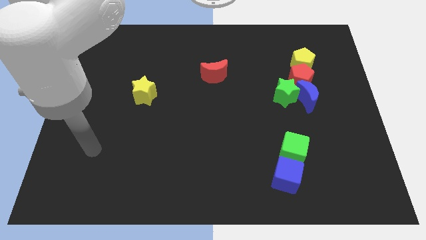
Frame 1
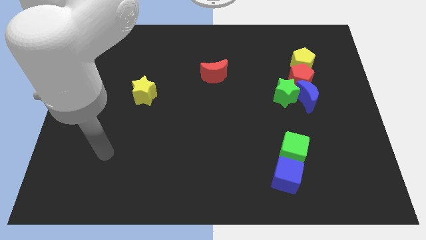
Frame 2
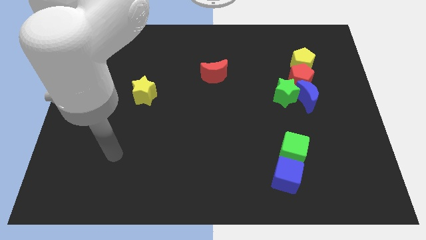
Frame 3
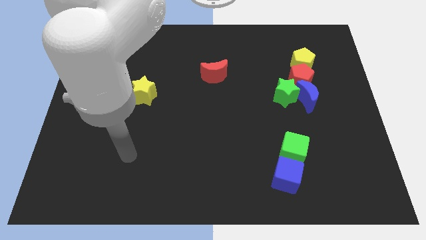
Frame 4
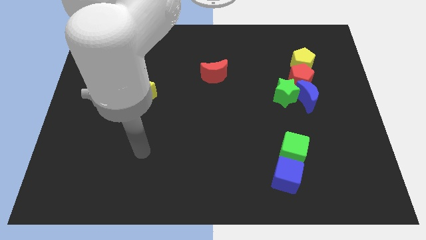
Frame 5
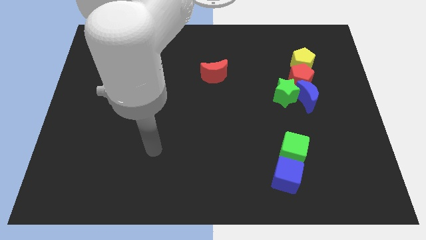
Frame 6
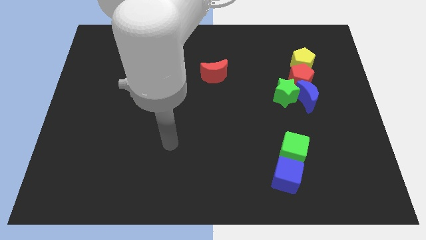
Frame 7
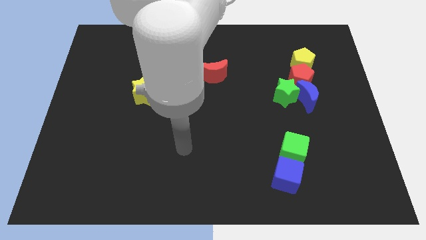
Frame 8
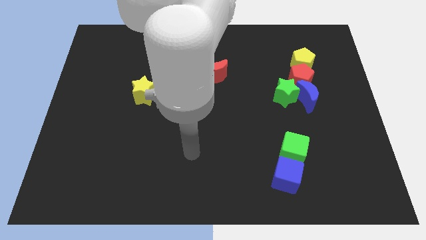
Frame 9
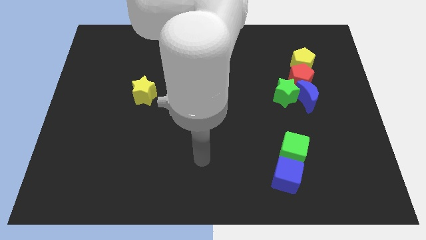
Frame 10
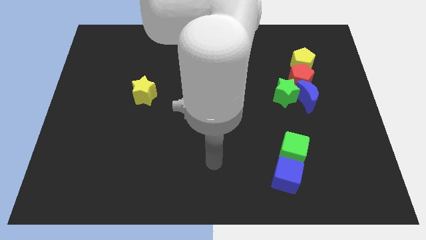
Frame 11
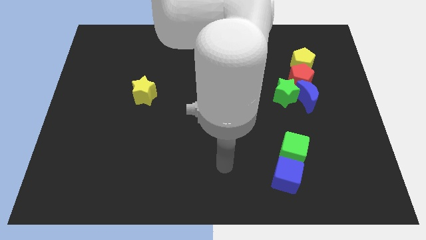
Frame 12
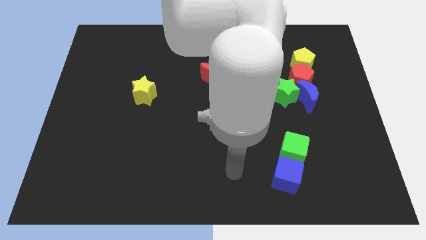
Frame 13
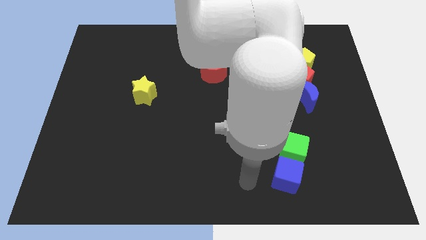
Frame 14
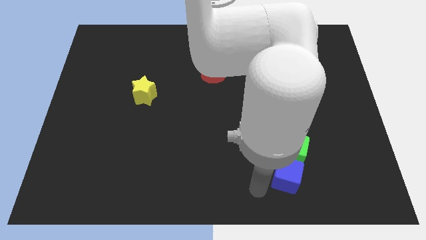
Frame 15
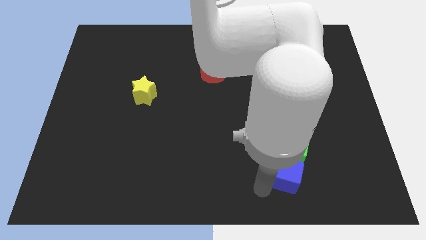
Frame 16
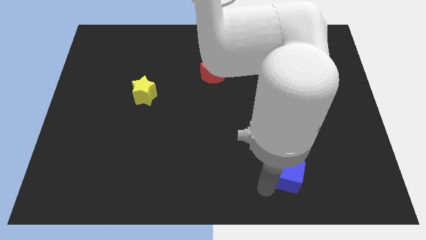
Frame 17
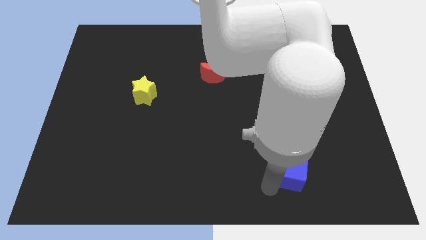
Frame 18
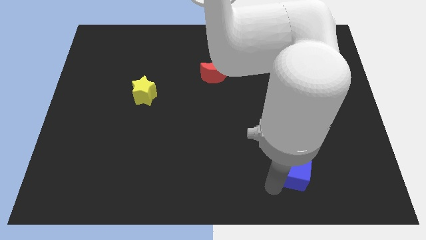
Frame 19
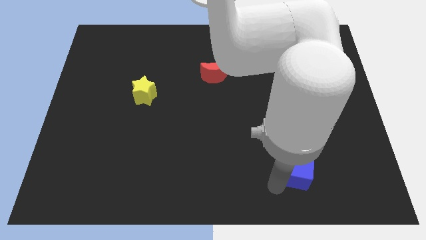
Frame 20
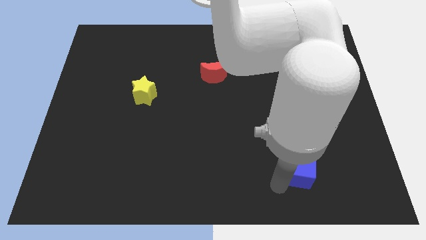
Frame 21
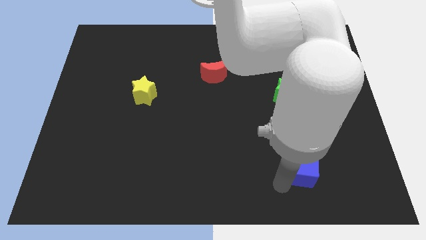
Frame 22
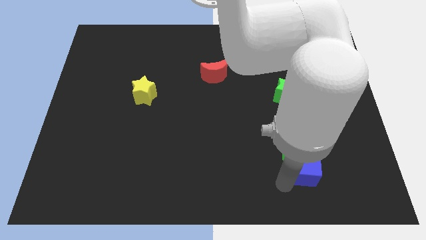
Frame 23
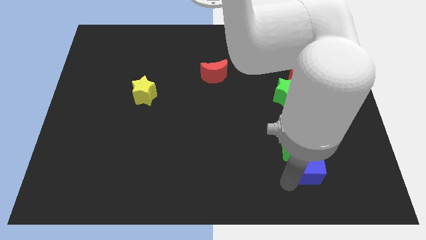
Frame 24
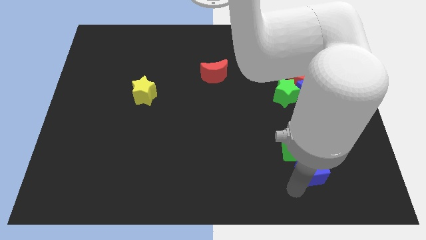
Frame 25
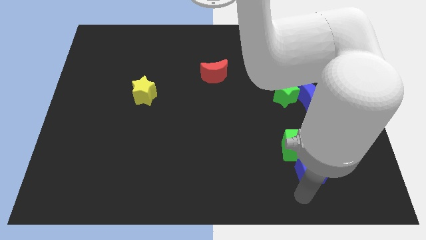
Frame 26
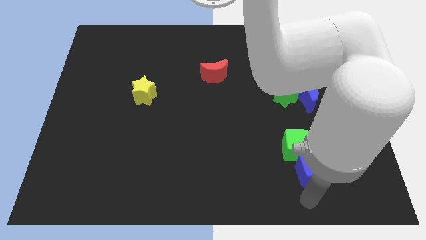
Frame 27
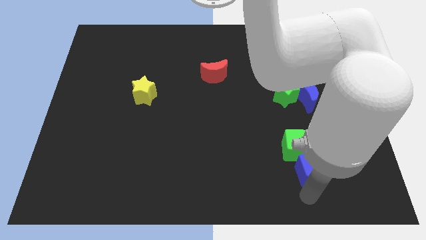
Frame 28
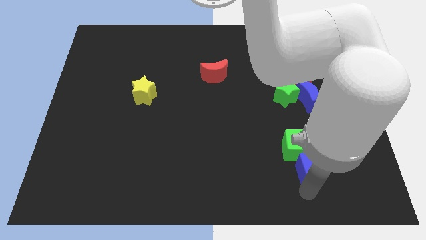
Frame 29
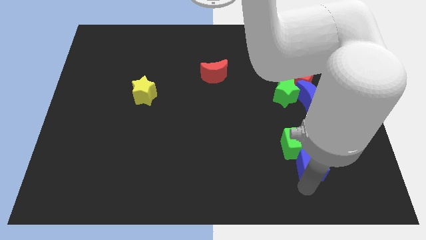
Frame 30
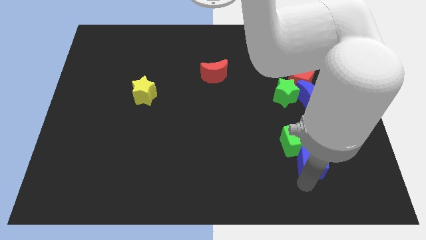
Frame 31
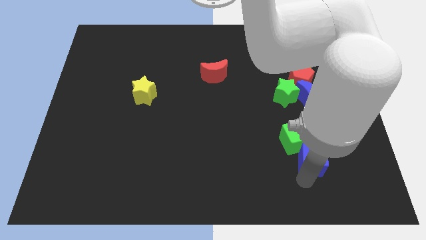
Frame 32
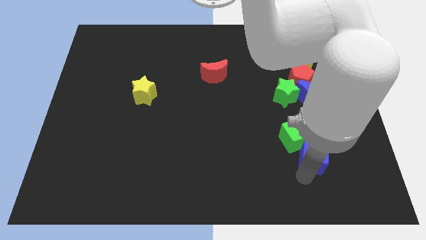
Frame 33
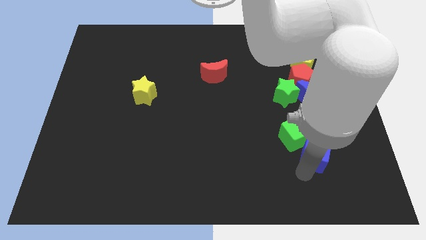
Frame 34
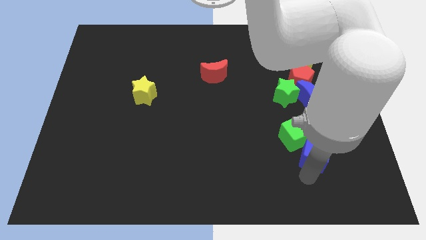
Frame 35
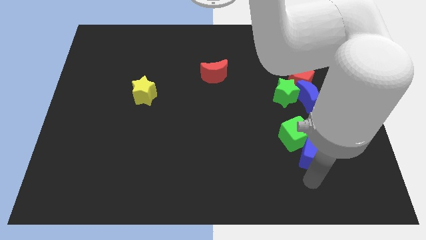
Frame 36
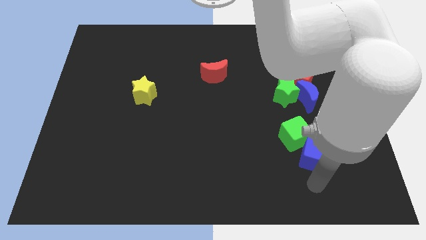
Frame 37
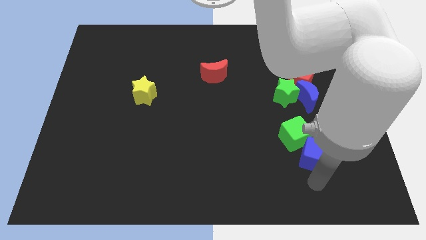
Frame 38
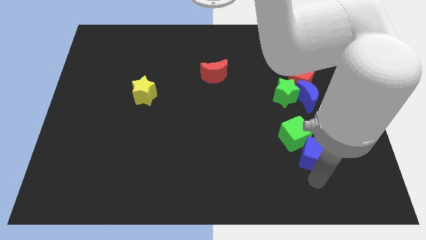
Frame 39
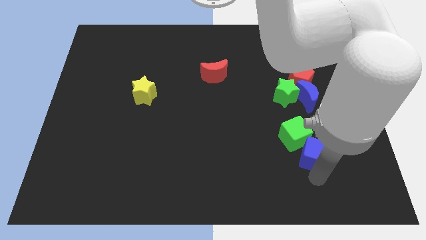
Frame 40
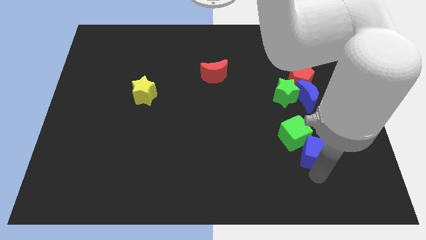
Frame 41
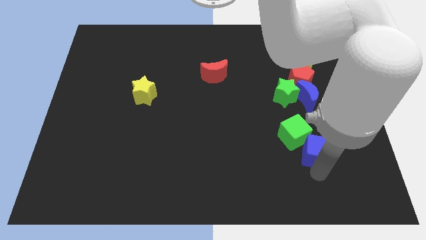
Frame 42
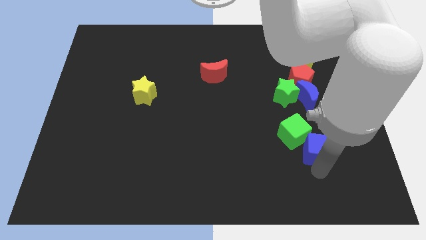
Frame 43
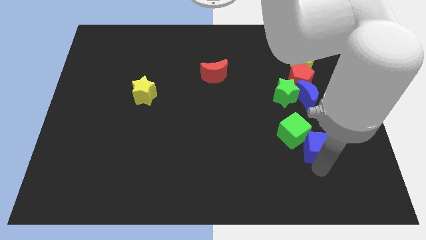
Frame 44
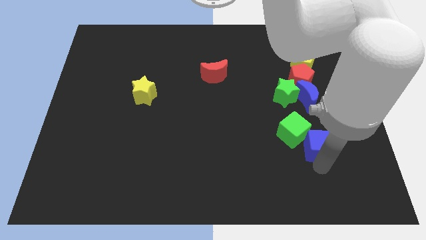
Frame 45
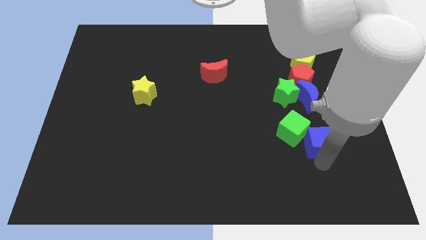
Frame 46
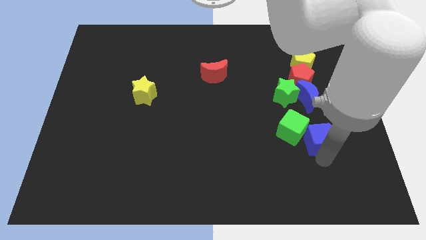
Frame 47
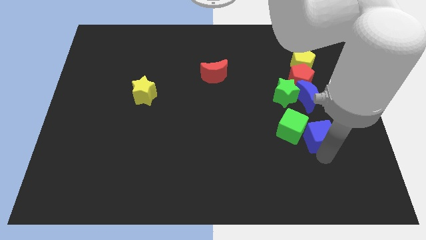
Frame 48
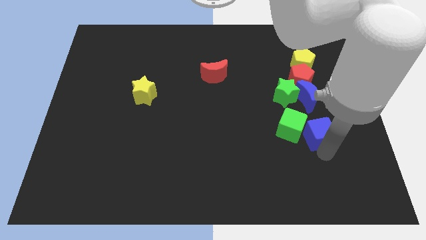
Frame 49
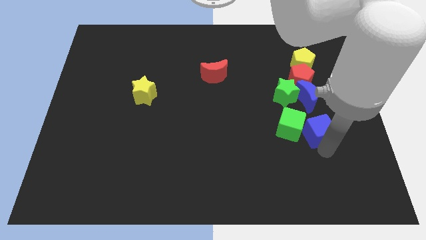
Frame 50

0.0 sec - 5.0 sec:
slide the blue cube below the red pentagon
